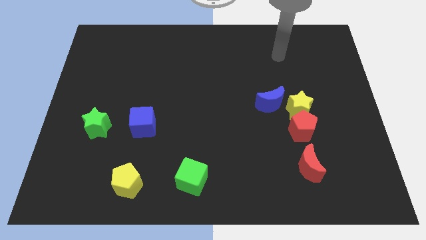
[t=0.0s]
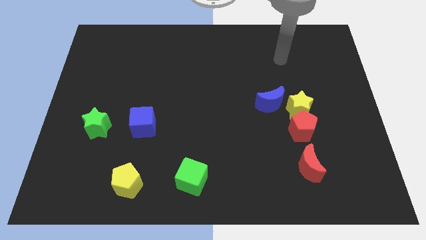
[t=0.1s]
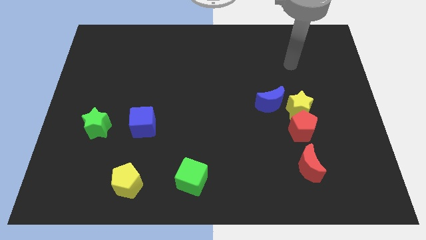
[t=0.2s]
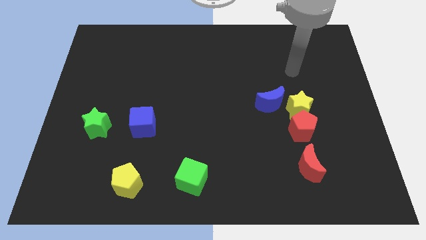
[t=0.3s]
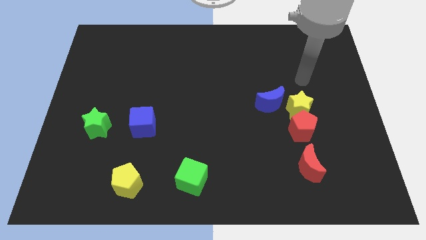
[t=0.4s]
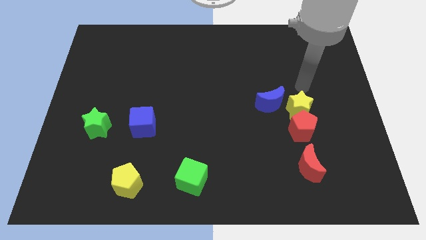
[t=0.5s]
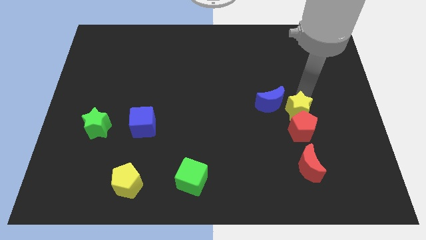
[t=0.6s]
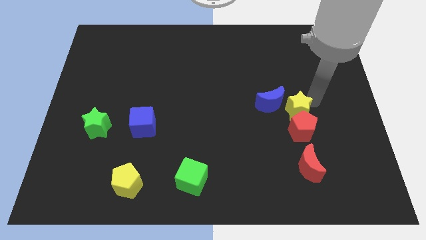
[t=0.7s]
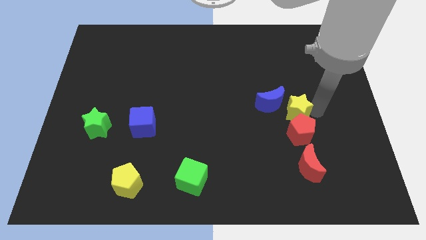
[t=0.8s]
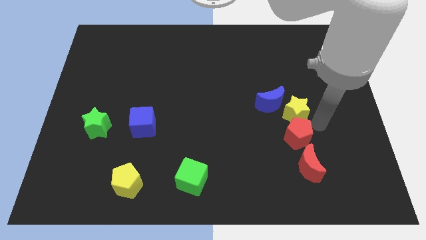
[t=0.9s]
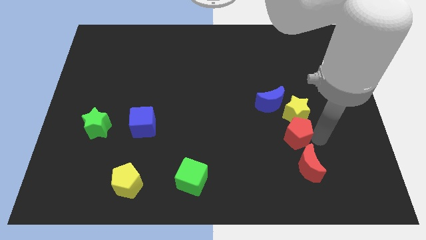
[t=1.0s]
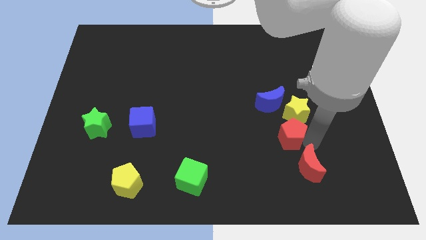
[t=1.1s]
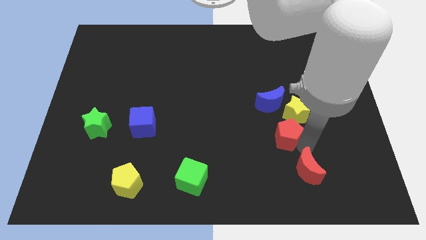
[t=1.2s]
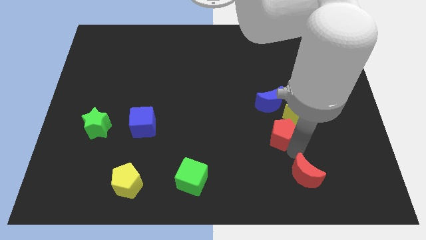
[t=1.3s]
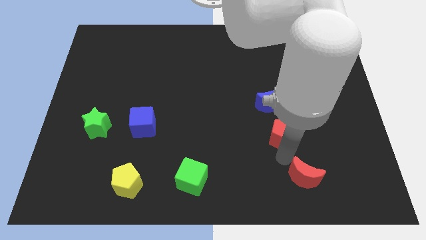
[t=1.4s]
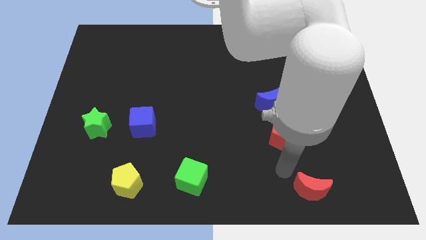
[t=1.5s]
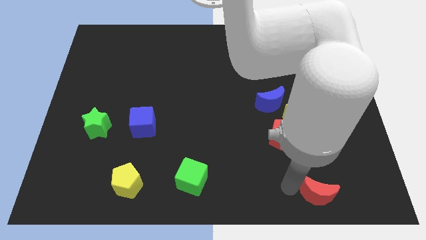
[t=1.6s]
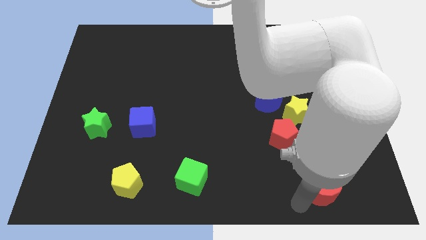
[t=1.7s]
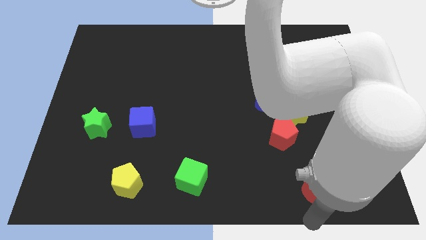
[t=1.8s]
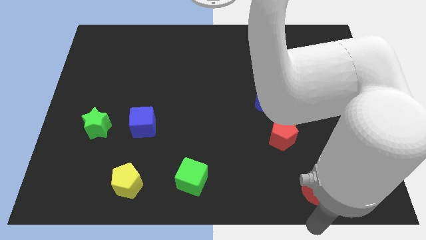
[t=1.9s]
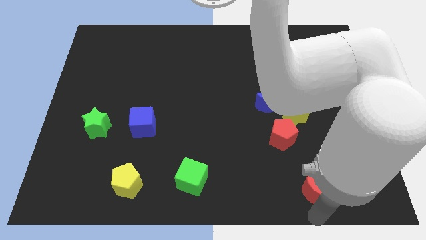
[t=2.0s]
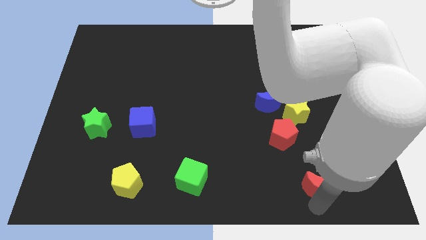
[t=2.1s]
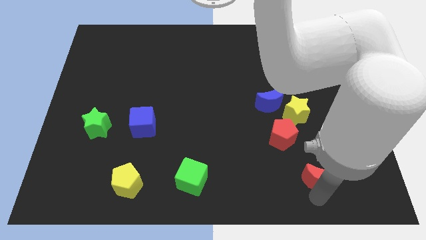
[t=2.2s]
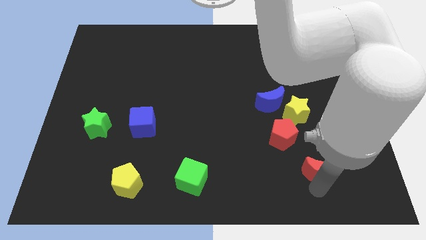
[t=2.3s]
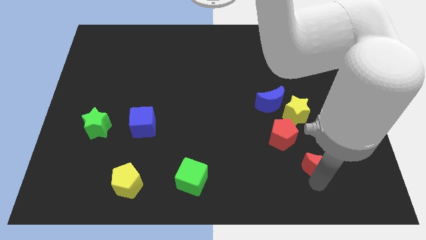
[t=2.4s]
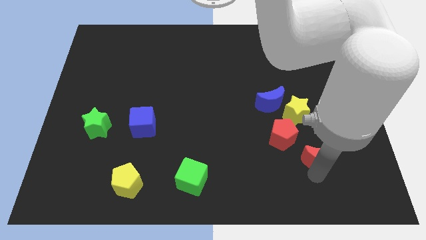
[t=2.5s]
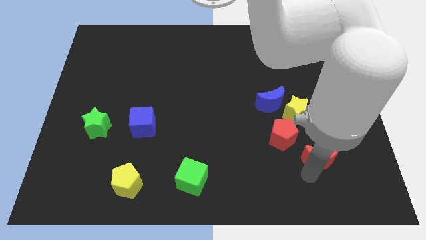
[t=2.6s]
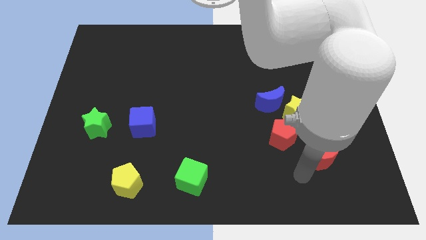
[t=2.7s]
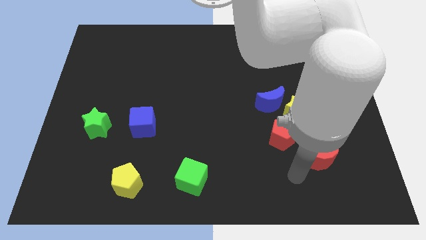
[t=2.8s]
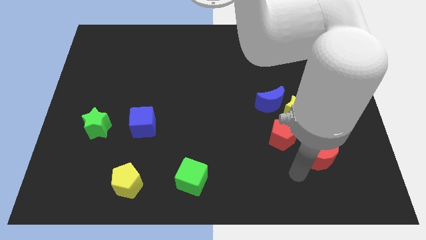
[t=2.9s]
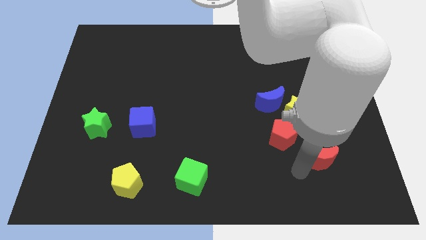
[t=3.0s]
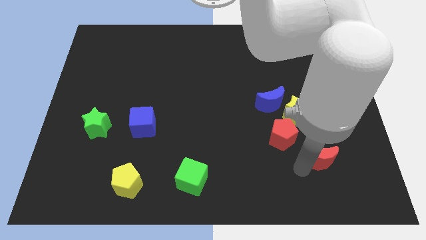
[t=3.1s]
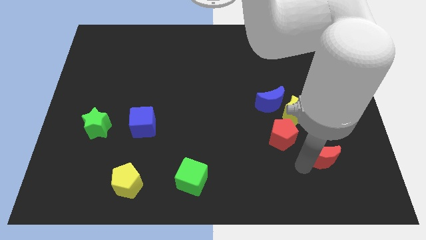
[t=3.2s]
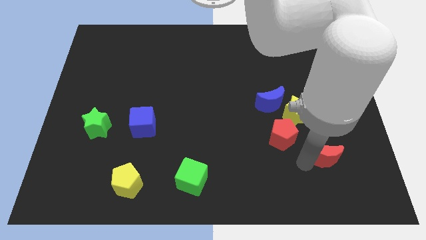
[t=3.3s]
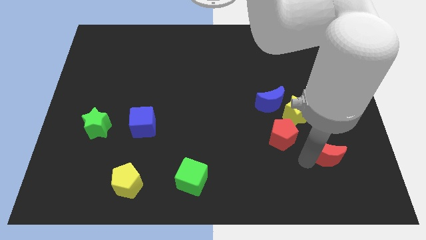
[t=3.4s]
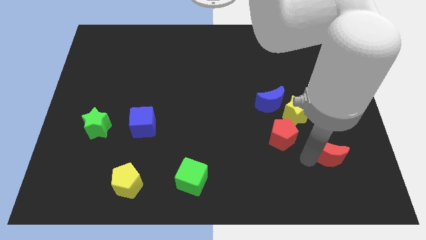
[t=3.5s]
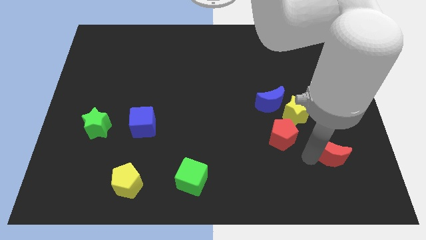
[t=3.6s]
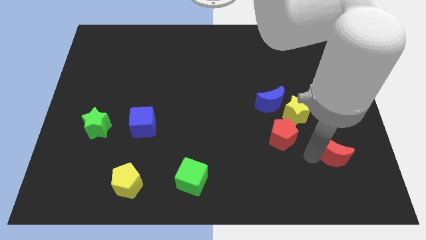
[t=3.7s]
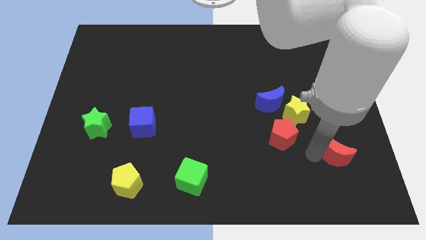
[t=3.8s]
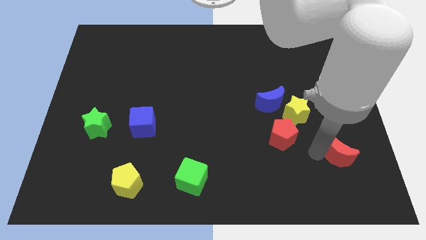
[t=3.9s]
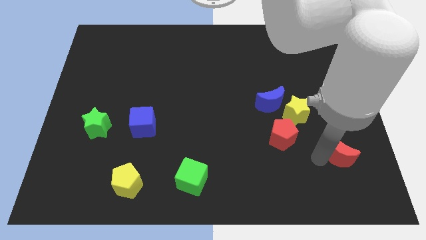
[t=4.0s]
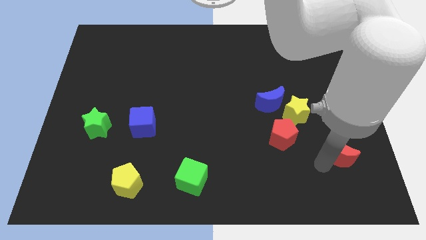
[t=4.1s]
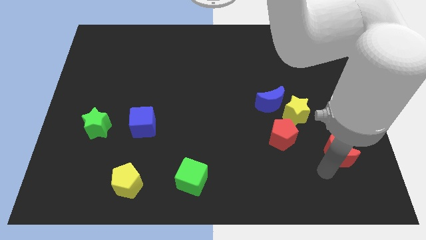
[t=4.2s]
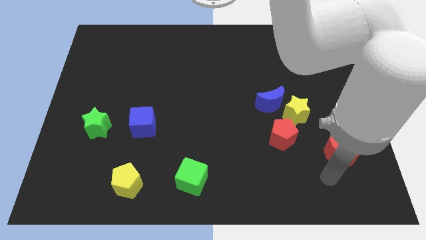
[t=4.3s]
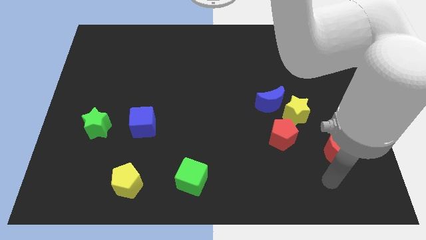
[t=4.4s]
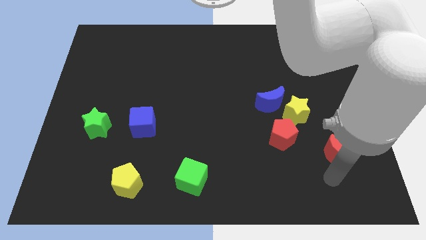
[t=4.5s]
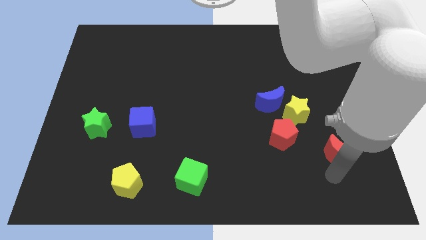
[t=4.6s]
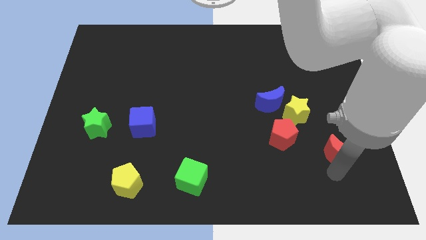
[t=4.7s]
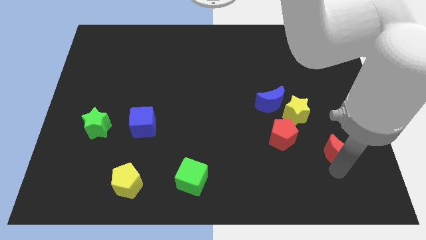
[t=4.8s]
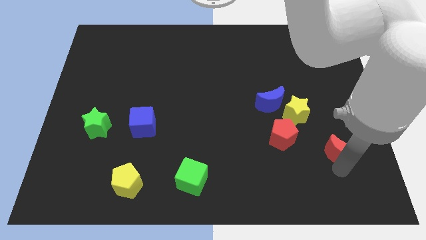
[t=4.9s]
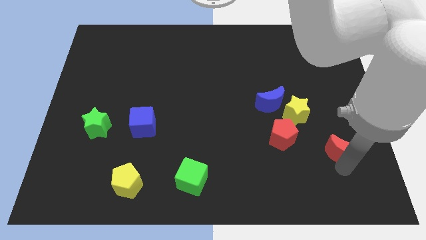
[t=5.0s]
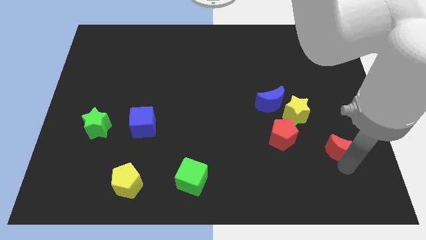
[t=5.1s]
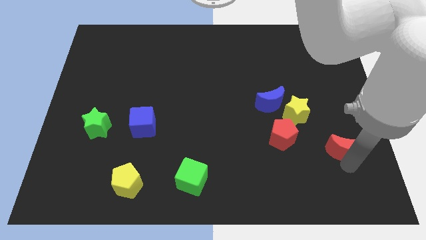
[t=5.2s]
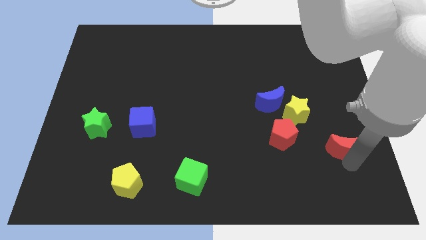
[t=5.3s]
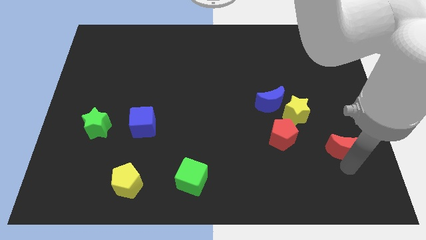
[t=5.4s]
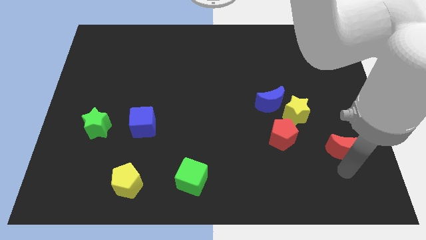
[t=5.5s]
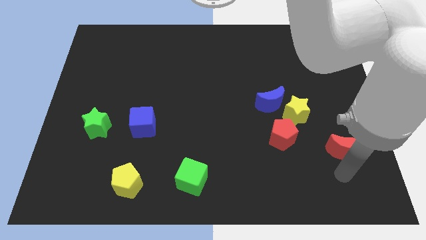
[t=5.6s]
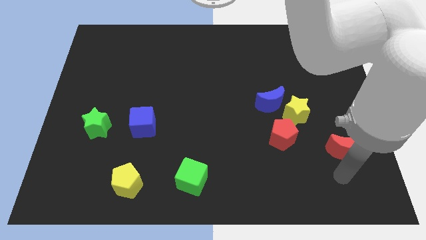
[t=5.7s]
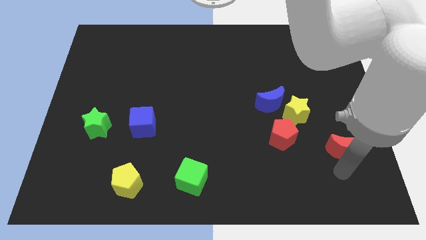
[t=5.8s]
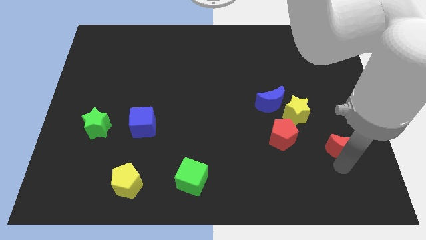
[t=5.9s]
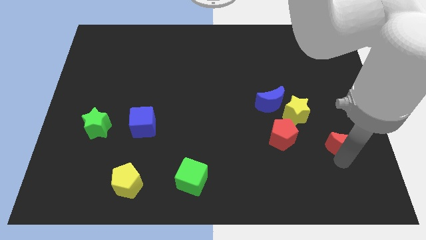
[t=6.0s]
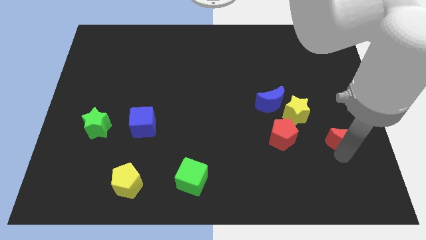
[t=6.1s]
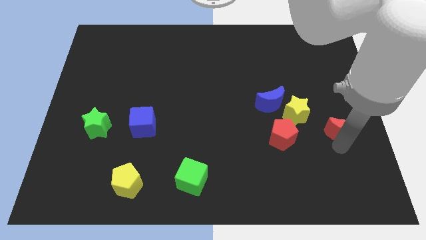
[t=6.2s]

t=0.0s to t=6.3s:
push the red moon to the right side
